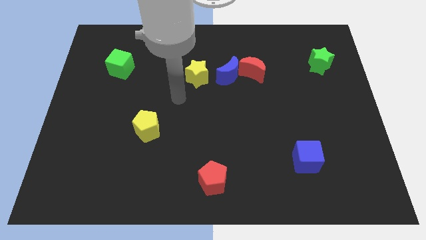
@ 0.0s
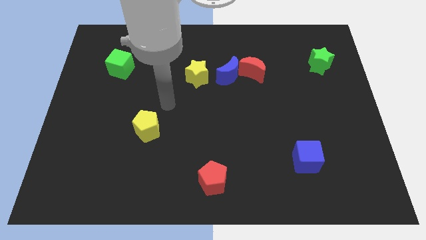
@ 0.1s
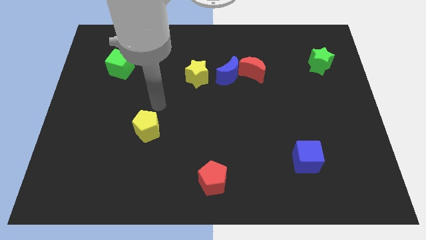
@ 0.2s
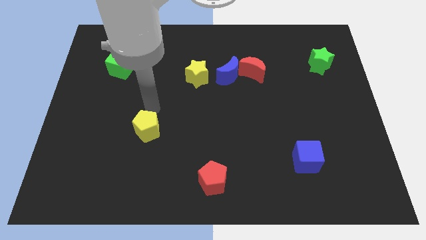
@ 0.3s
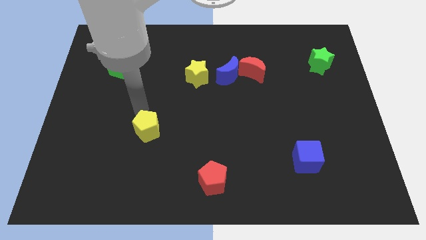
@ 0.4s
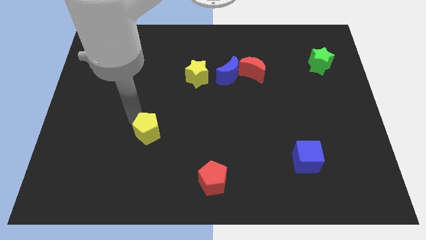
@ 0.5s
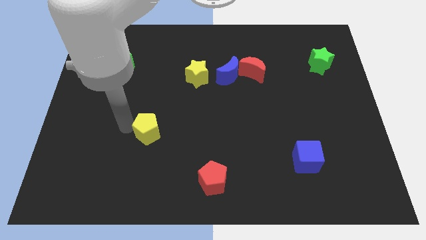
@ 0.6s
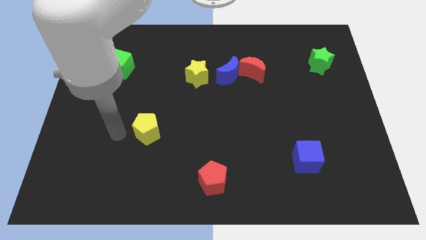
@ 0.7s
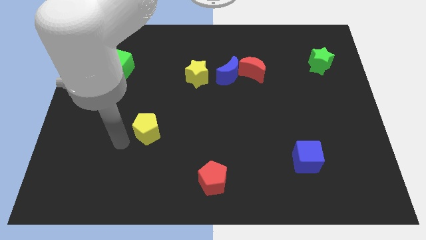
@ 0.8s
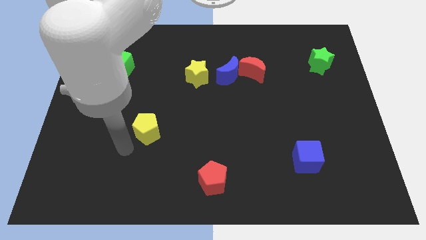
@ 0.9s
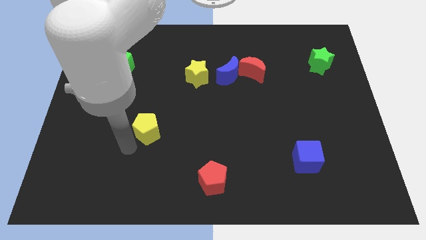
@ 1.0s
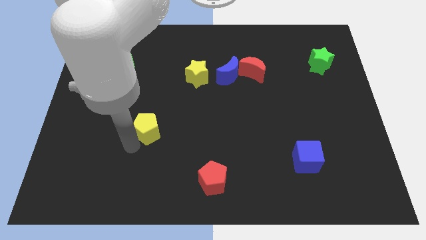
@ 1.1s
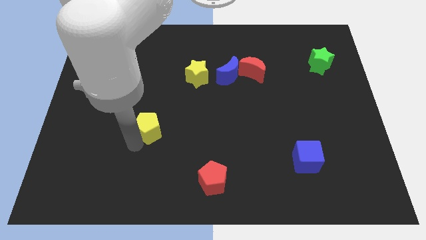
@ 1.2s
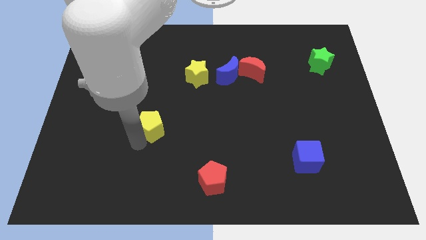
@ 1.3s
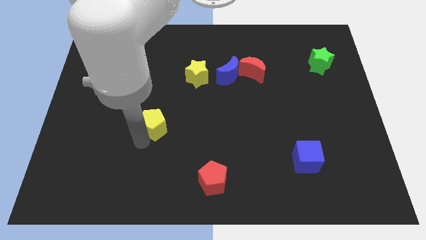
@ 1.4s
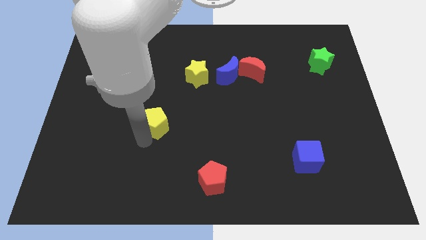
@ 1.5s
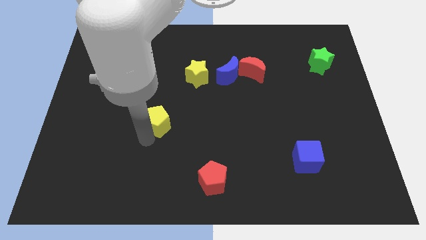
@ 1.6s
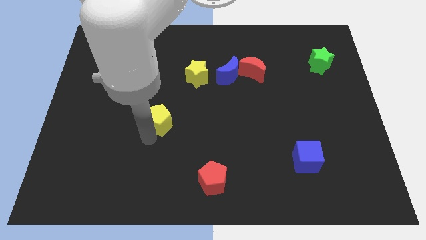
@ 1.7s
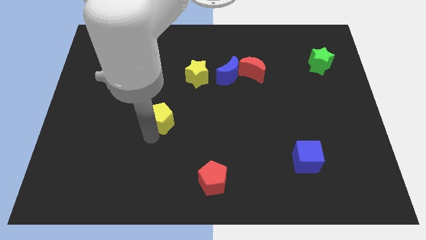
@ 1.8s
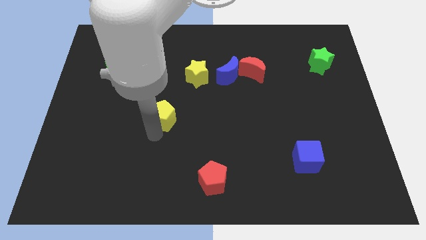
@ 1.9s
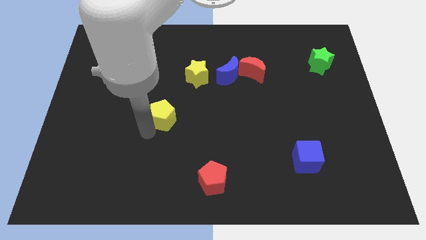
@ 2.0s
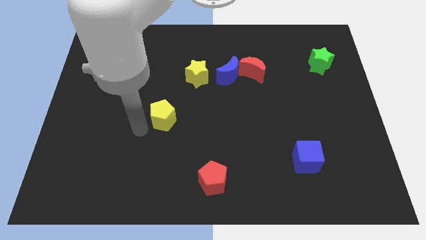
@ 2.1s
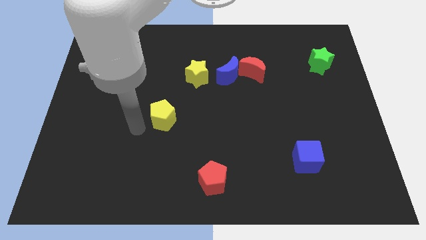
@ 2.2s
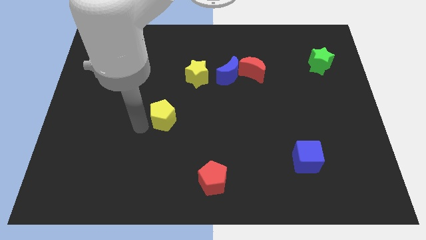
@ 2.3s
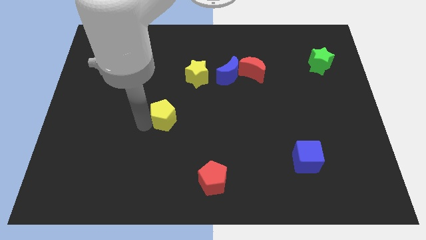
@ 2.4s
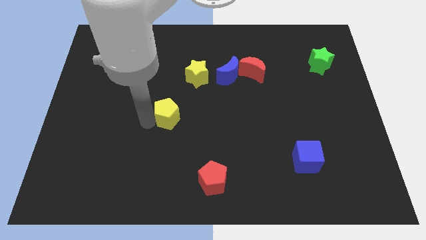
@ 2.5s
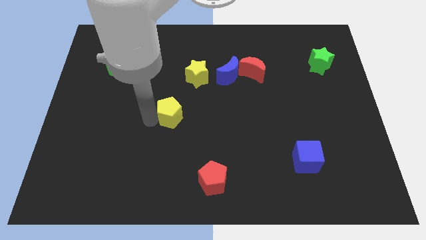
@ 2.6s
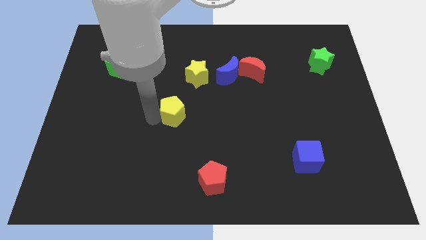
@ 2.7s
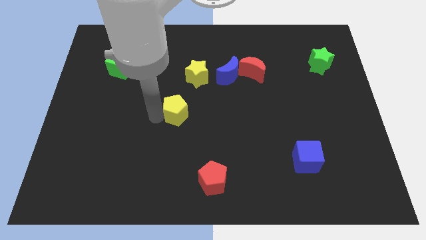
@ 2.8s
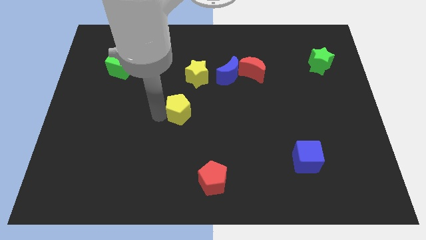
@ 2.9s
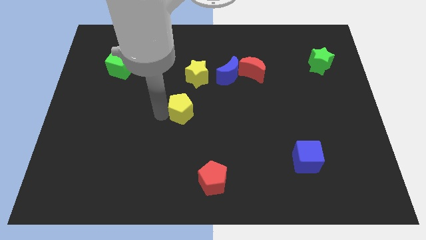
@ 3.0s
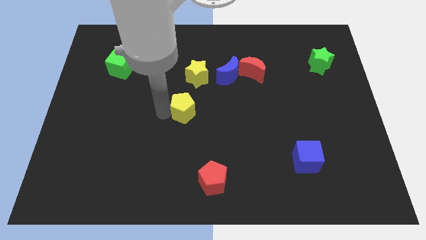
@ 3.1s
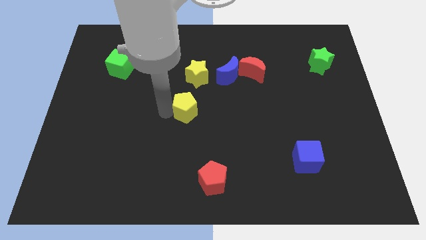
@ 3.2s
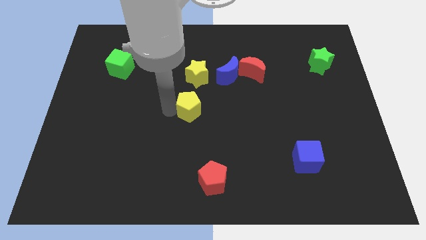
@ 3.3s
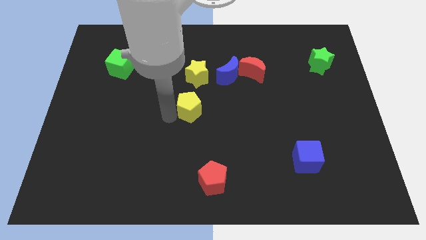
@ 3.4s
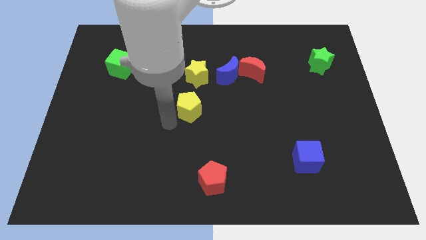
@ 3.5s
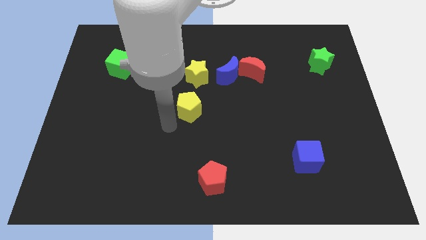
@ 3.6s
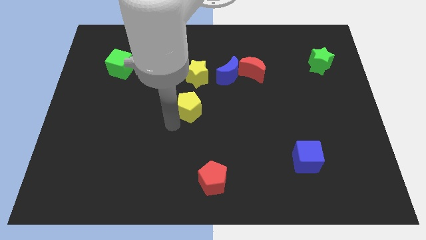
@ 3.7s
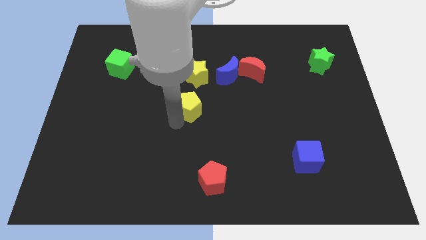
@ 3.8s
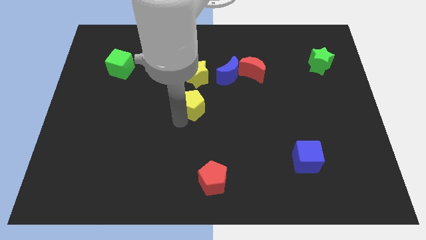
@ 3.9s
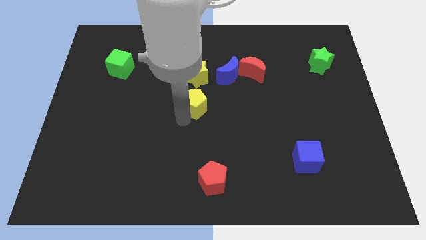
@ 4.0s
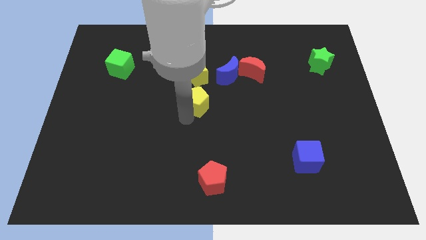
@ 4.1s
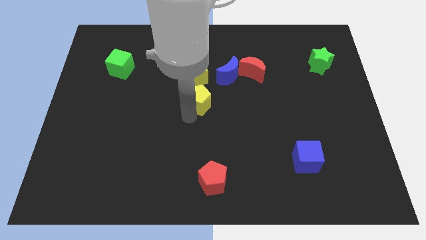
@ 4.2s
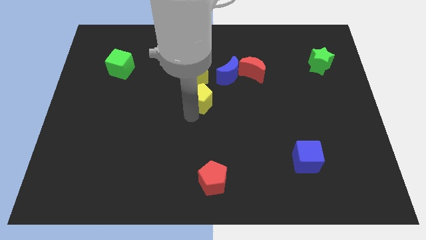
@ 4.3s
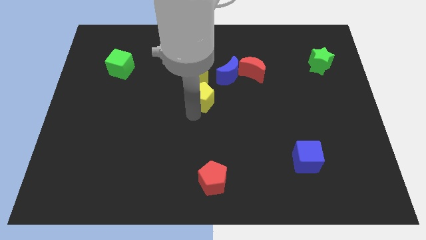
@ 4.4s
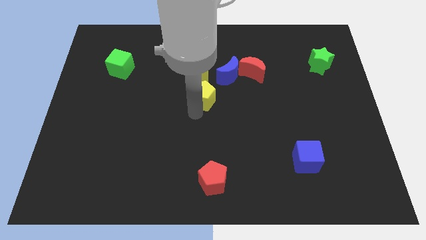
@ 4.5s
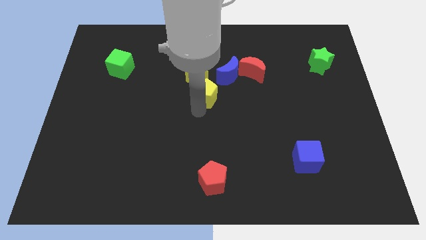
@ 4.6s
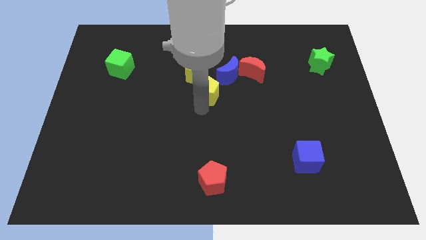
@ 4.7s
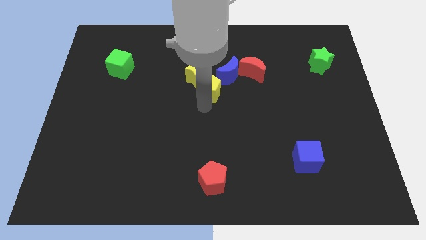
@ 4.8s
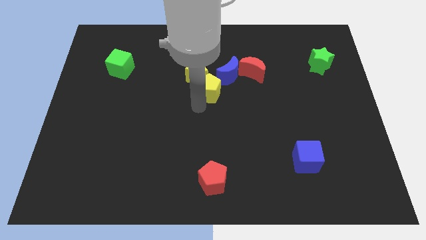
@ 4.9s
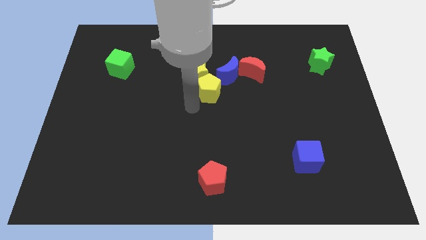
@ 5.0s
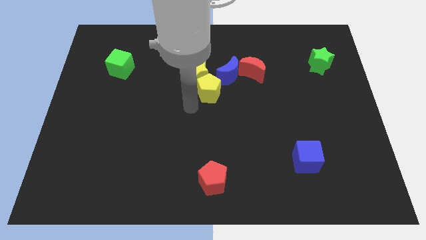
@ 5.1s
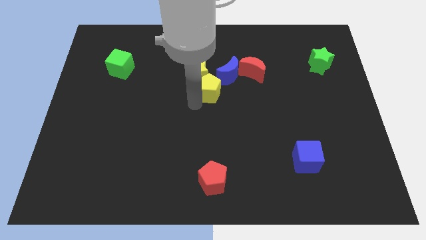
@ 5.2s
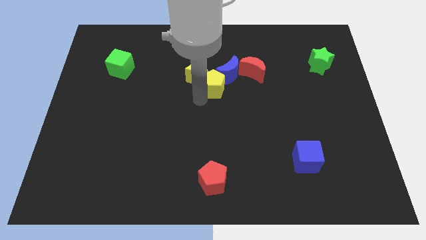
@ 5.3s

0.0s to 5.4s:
push the yellow pentagon to the blue moon

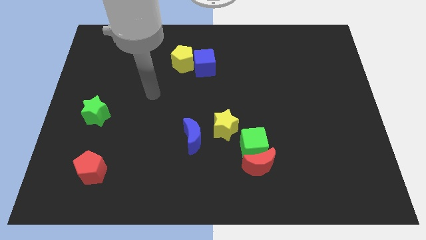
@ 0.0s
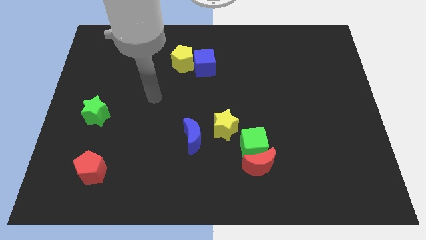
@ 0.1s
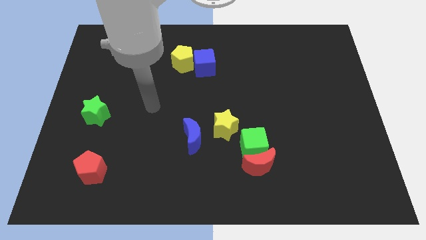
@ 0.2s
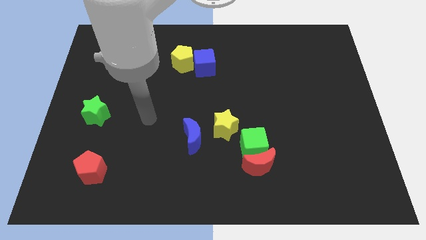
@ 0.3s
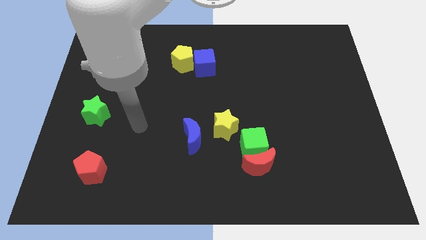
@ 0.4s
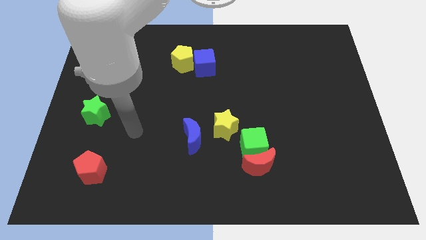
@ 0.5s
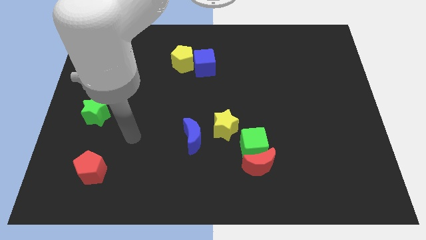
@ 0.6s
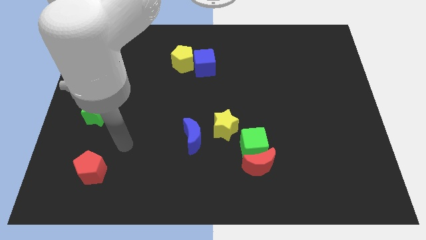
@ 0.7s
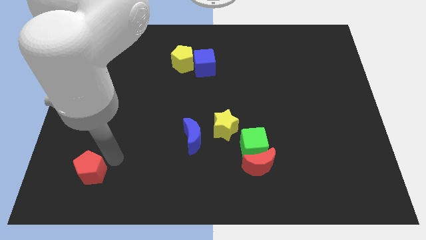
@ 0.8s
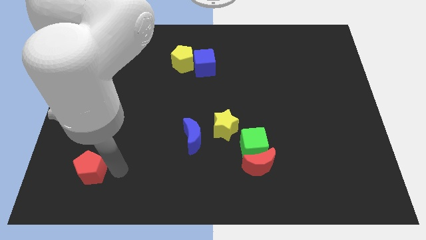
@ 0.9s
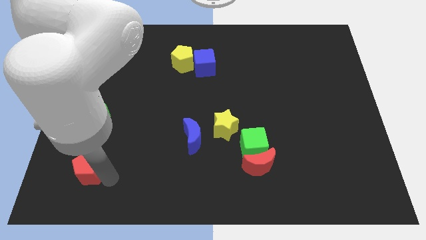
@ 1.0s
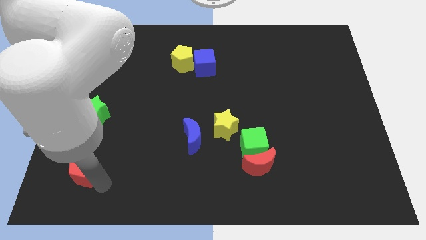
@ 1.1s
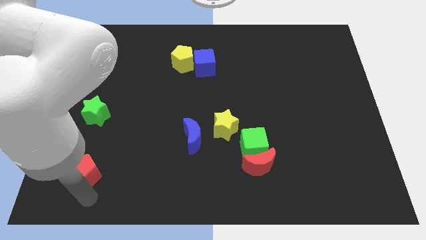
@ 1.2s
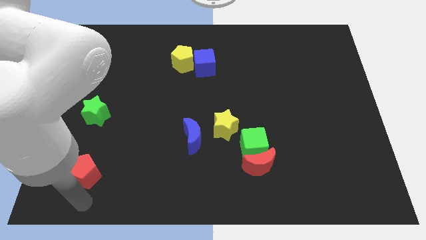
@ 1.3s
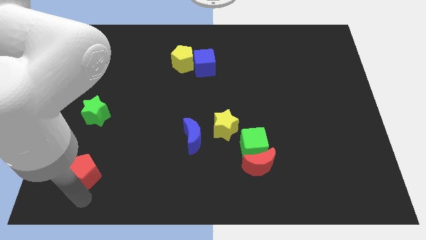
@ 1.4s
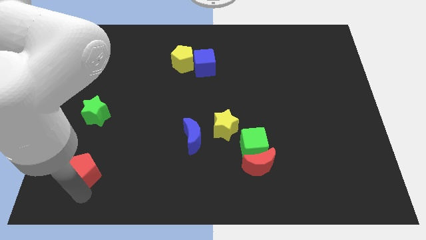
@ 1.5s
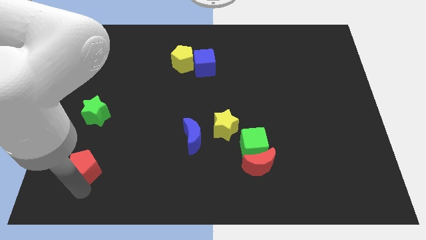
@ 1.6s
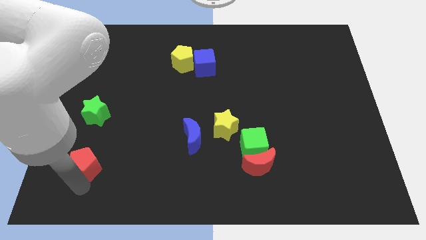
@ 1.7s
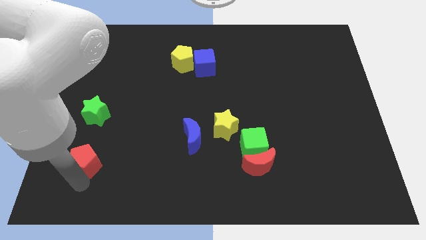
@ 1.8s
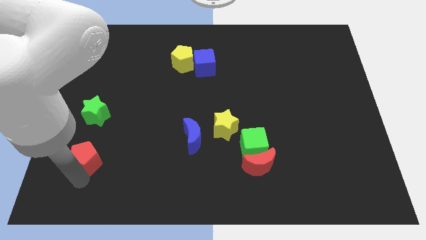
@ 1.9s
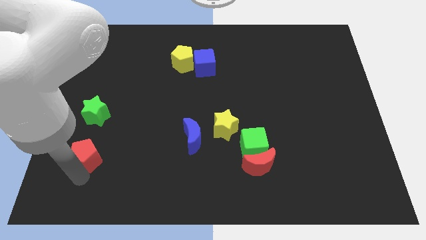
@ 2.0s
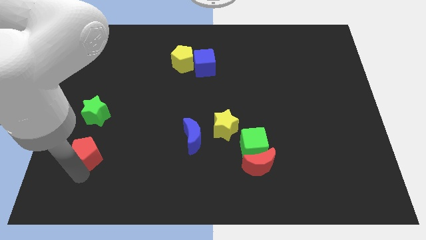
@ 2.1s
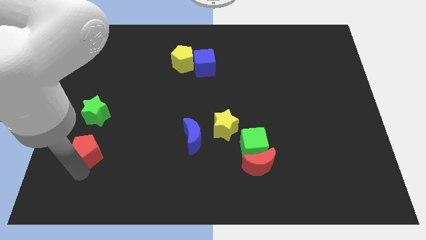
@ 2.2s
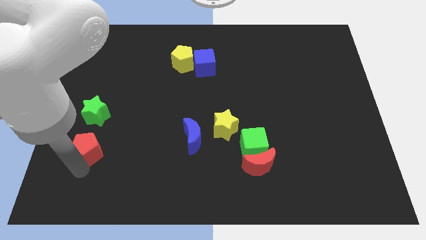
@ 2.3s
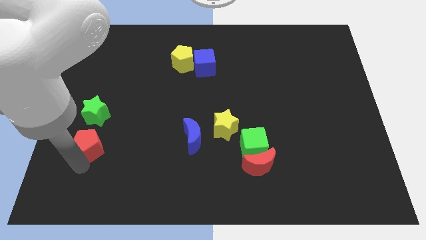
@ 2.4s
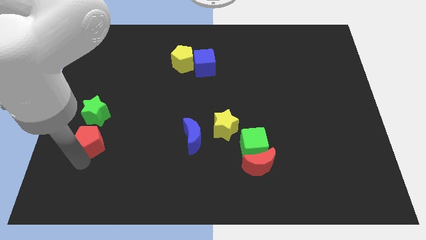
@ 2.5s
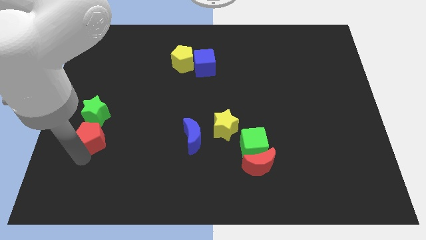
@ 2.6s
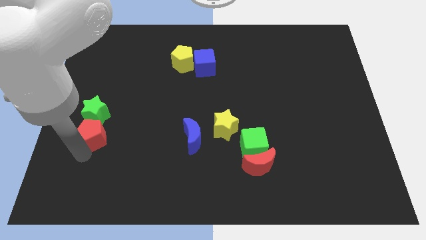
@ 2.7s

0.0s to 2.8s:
push the red pentagon to the green star
